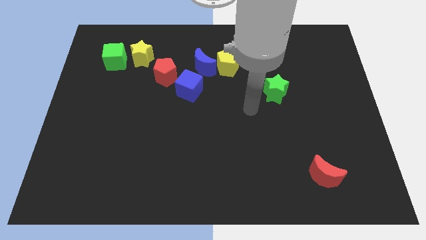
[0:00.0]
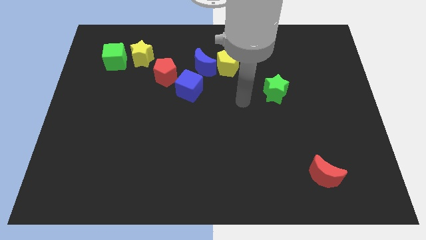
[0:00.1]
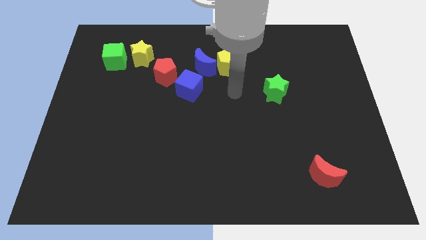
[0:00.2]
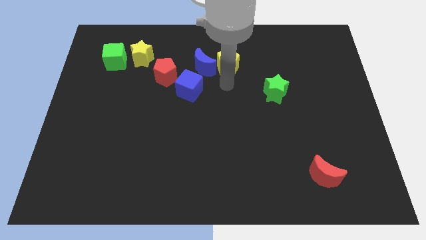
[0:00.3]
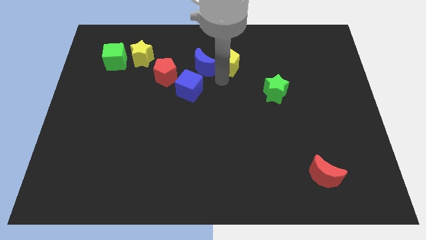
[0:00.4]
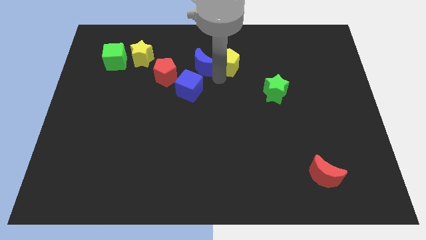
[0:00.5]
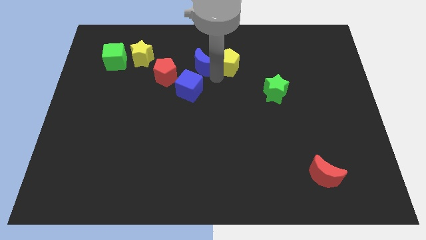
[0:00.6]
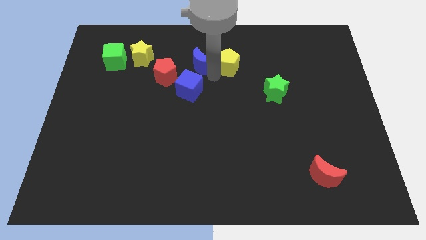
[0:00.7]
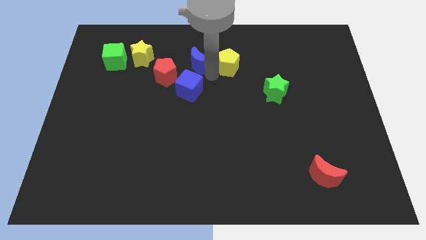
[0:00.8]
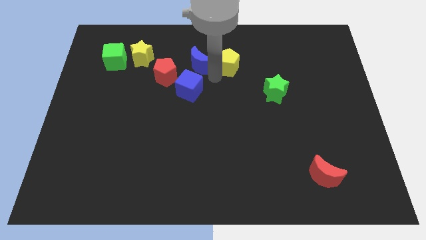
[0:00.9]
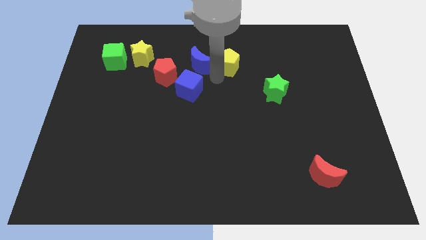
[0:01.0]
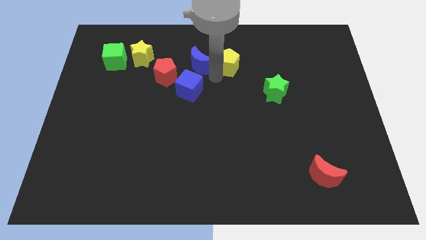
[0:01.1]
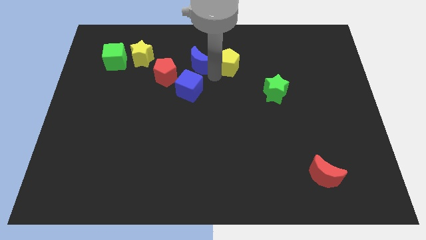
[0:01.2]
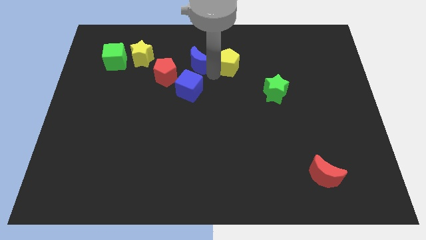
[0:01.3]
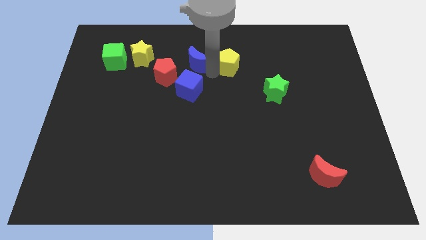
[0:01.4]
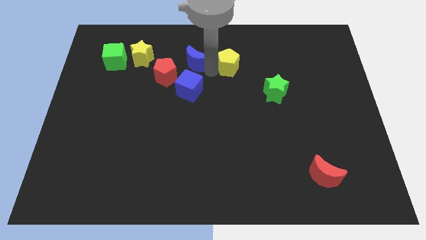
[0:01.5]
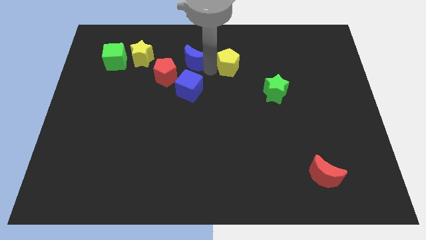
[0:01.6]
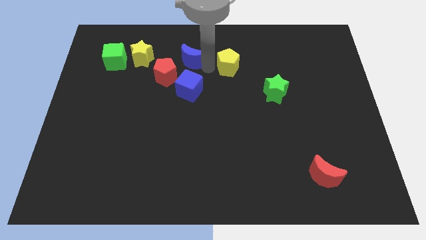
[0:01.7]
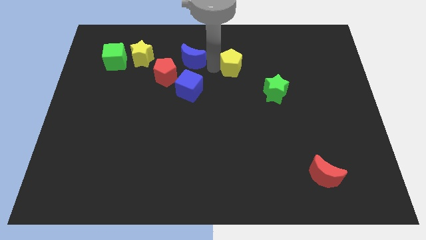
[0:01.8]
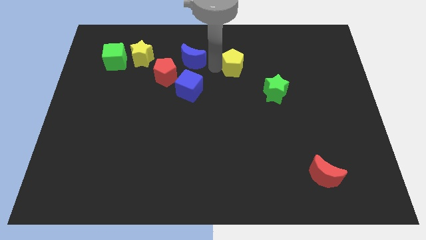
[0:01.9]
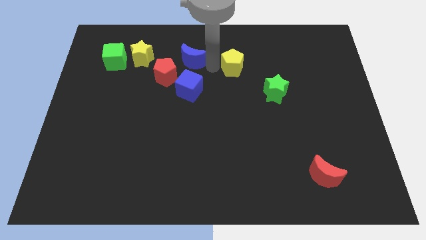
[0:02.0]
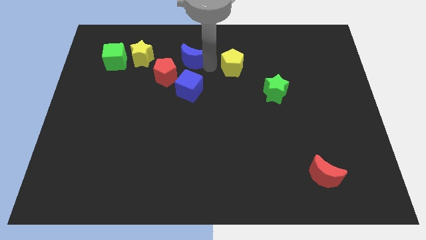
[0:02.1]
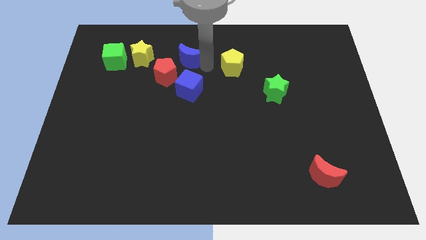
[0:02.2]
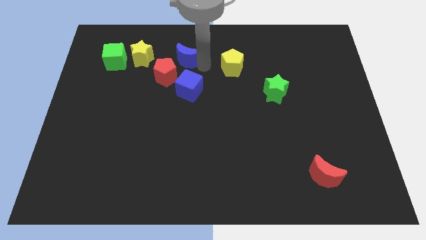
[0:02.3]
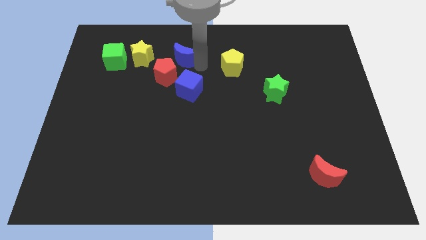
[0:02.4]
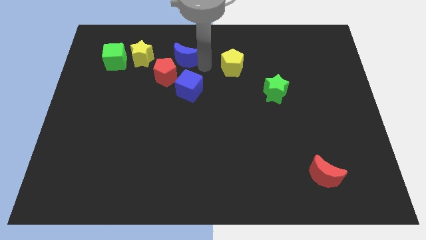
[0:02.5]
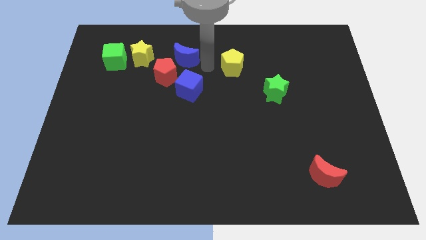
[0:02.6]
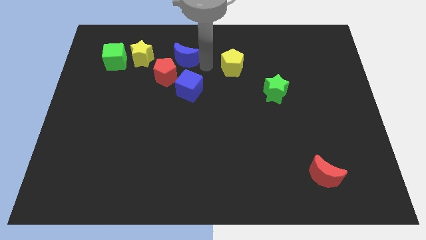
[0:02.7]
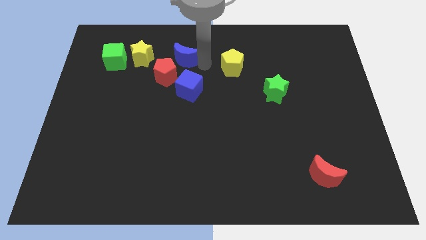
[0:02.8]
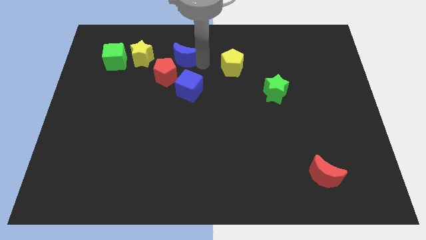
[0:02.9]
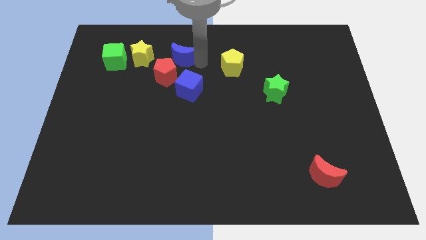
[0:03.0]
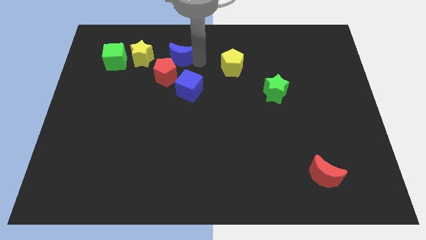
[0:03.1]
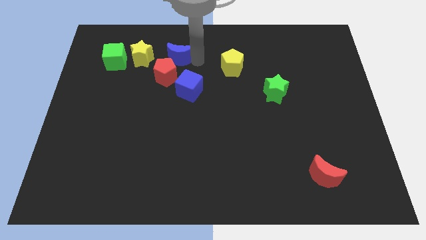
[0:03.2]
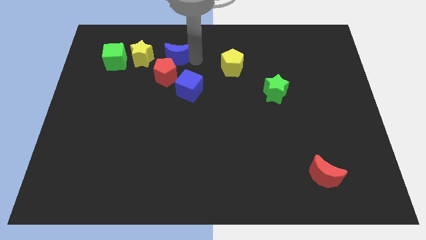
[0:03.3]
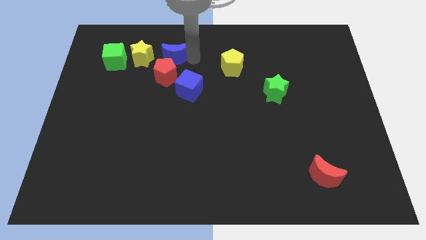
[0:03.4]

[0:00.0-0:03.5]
move the blue moon left slightly

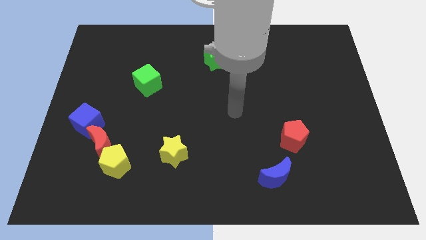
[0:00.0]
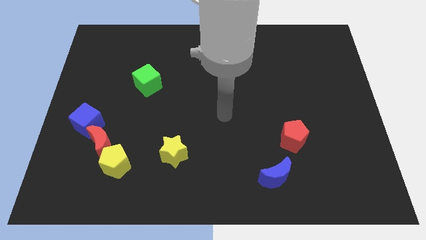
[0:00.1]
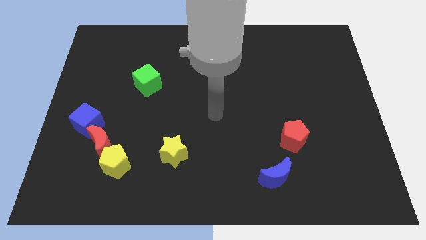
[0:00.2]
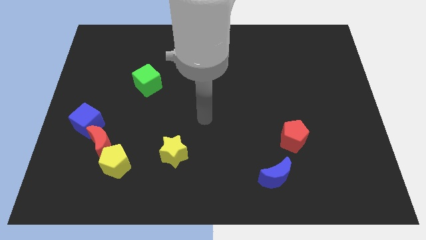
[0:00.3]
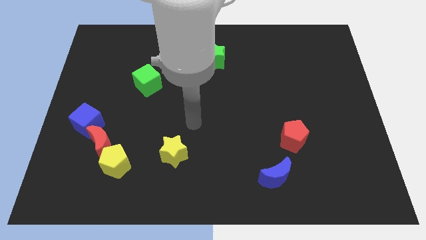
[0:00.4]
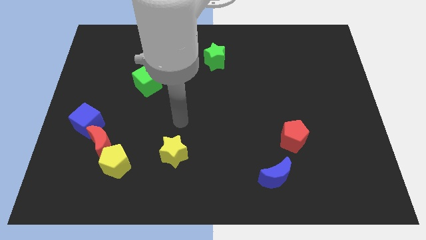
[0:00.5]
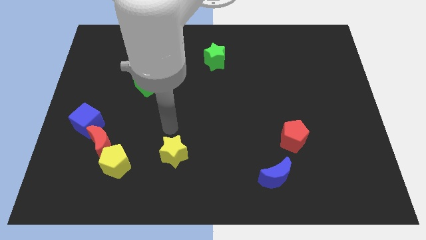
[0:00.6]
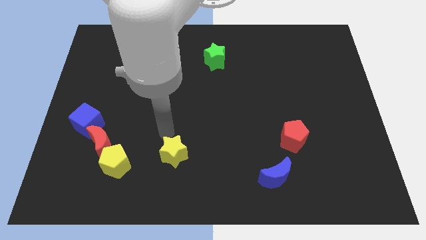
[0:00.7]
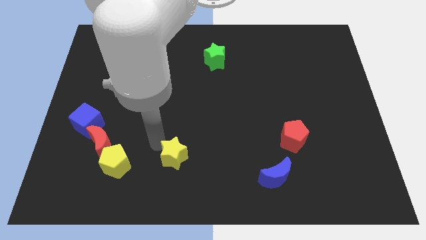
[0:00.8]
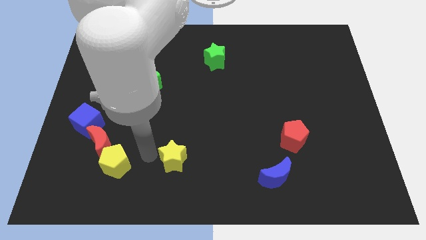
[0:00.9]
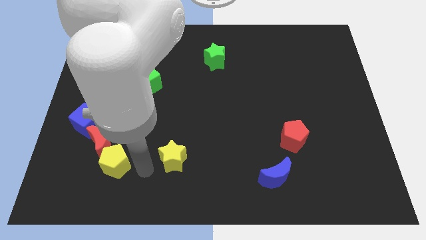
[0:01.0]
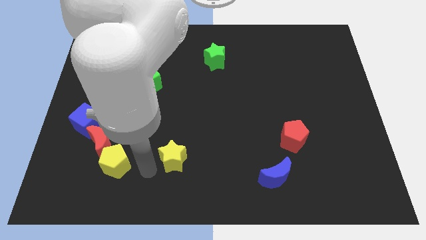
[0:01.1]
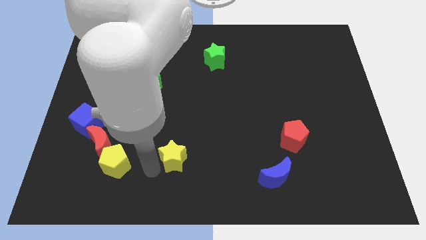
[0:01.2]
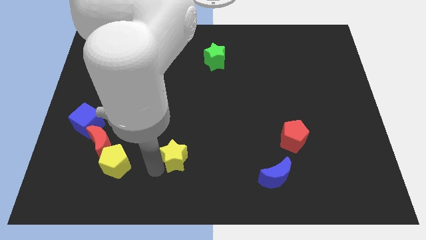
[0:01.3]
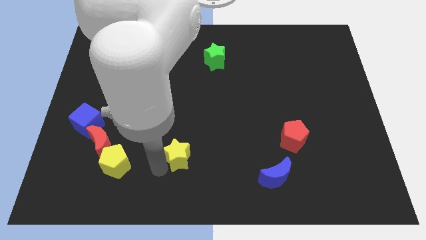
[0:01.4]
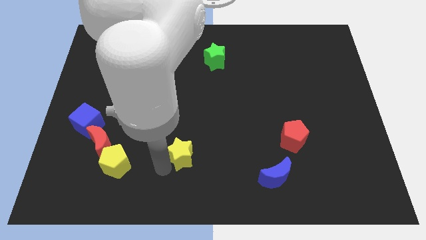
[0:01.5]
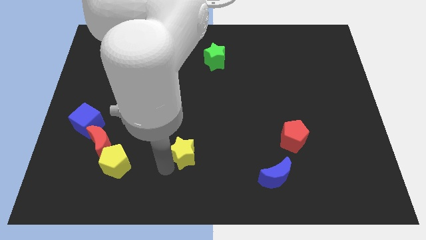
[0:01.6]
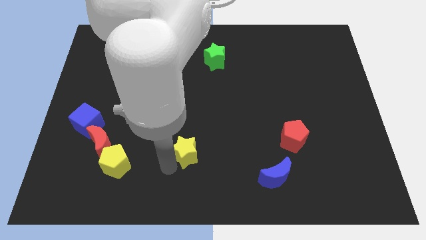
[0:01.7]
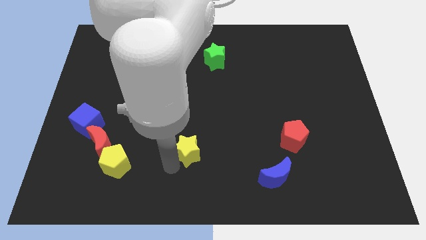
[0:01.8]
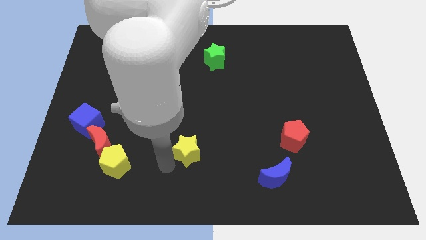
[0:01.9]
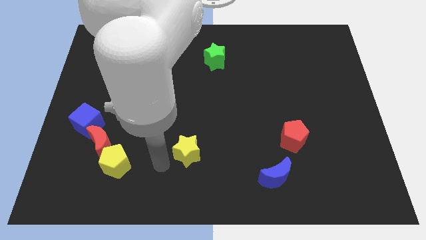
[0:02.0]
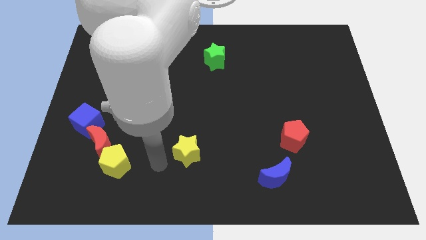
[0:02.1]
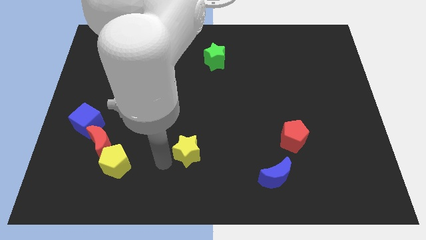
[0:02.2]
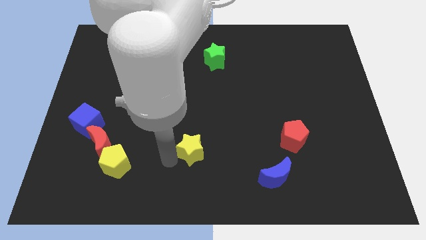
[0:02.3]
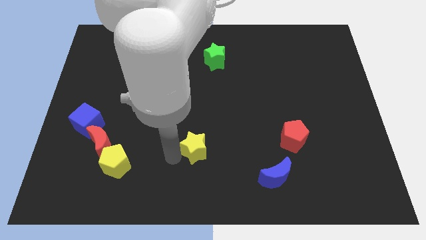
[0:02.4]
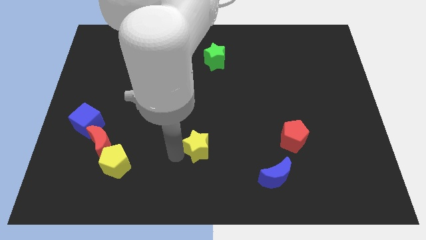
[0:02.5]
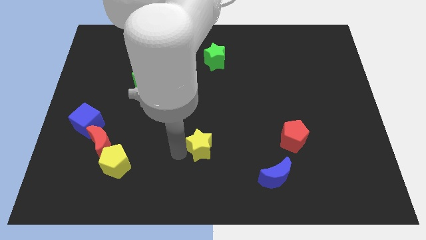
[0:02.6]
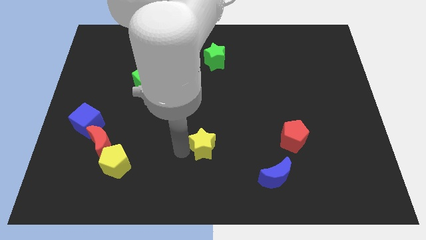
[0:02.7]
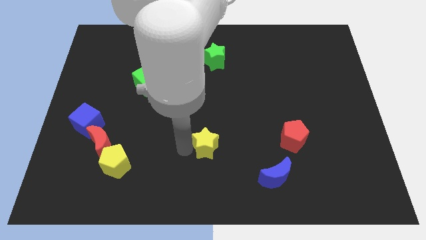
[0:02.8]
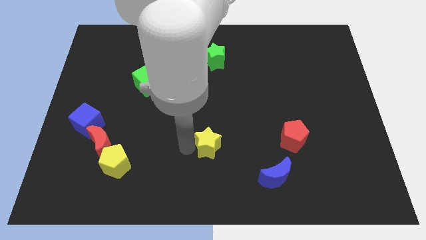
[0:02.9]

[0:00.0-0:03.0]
push the yellow star slightly to the right

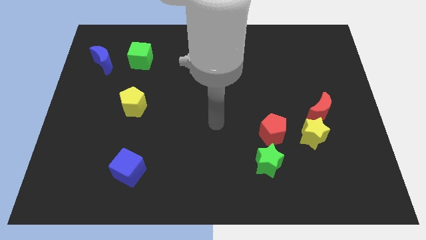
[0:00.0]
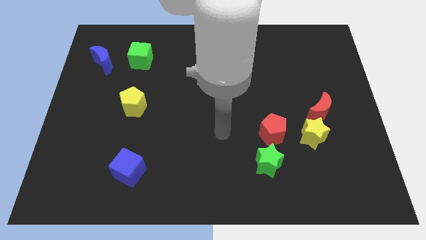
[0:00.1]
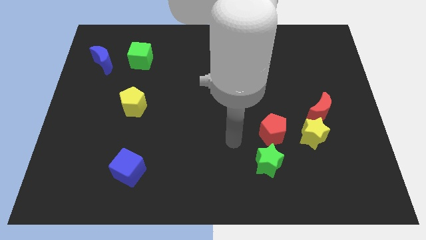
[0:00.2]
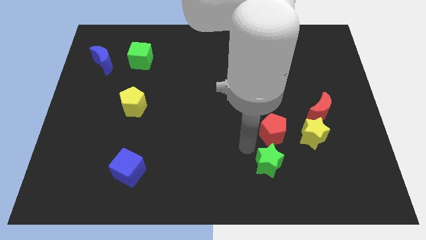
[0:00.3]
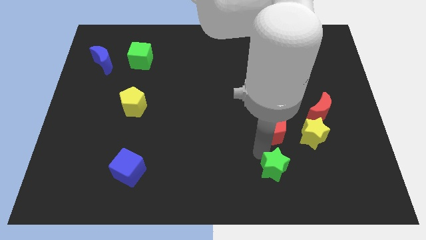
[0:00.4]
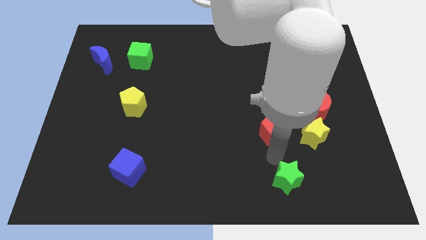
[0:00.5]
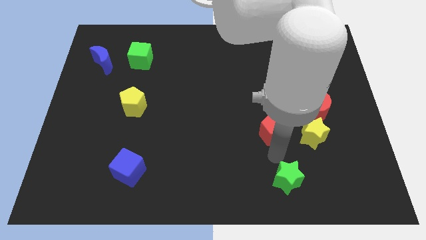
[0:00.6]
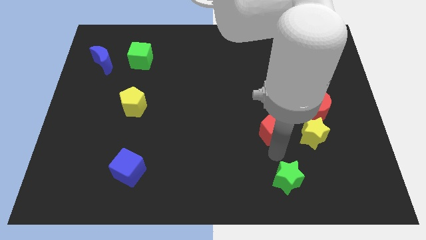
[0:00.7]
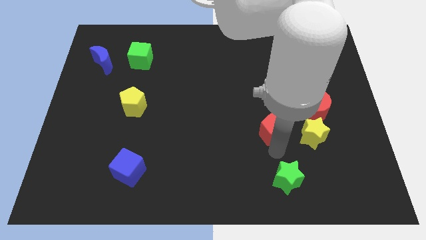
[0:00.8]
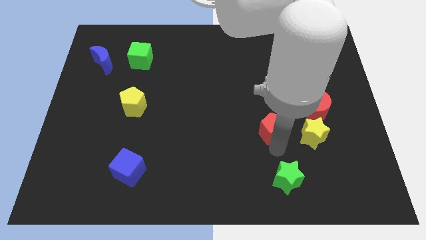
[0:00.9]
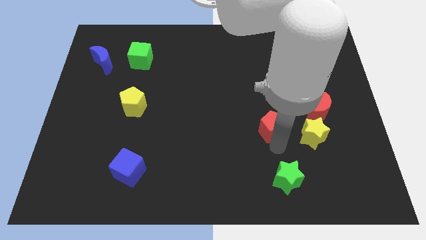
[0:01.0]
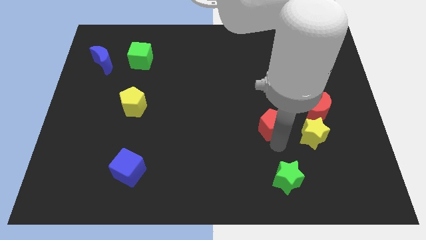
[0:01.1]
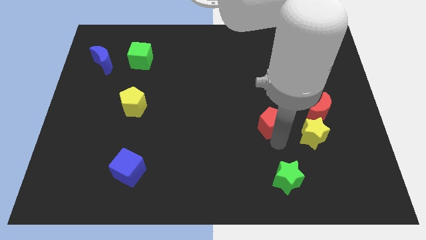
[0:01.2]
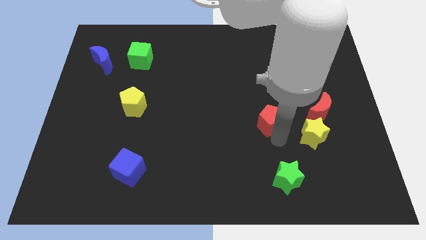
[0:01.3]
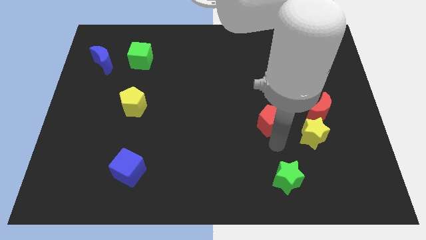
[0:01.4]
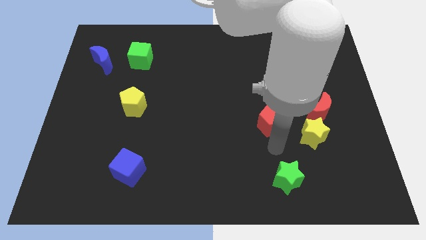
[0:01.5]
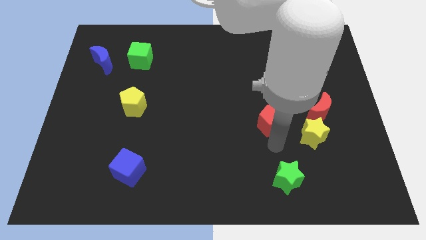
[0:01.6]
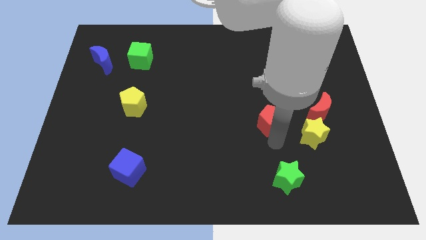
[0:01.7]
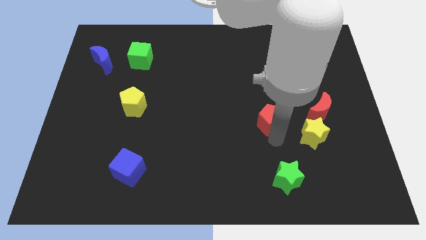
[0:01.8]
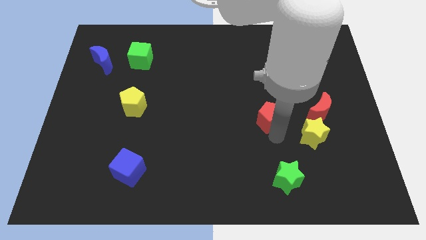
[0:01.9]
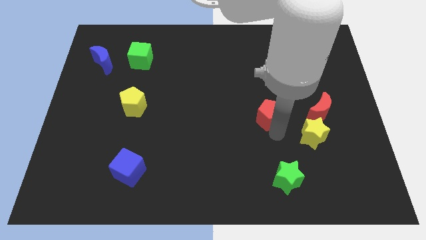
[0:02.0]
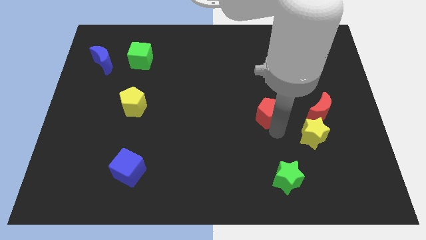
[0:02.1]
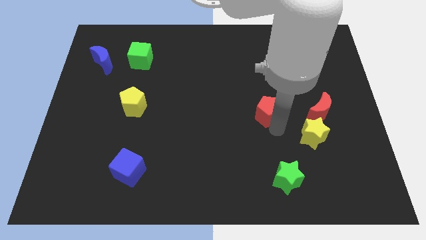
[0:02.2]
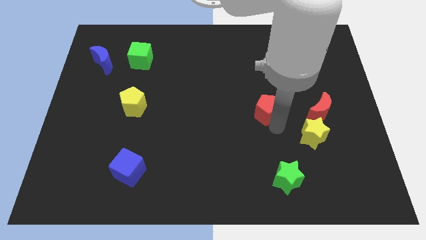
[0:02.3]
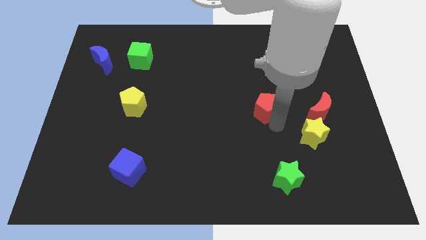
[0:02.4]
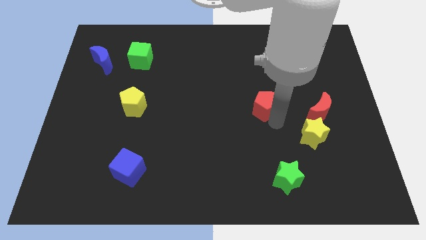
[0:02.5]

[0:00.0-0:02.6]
slide the red pentagon upwards a bit
